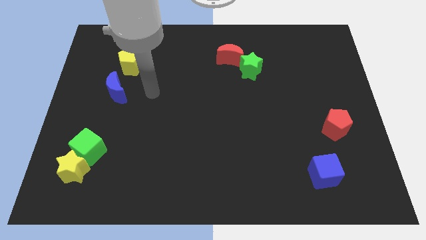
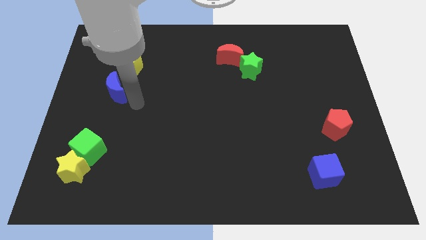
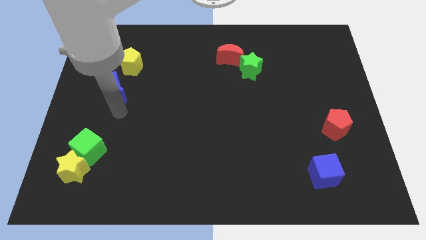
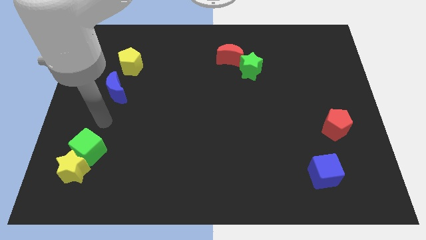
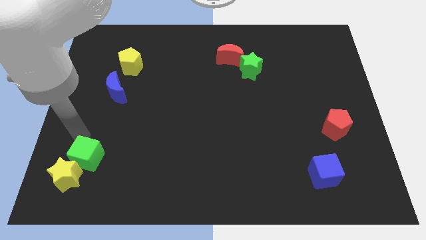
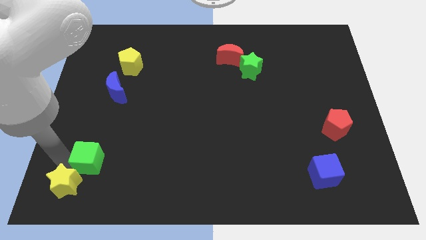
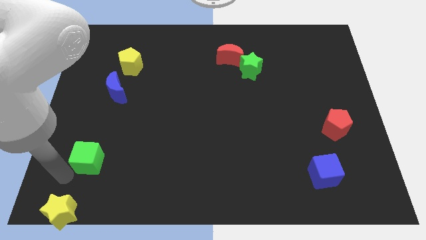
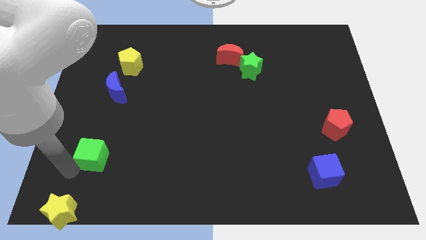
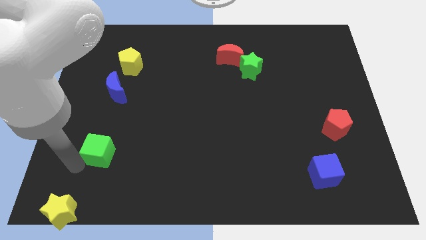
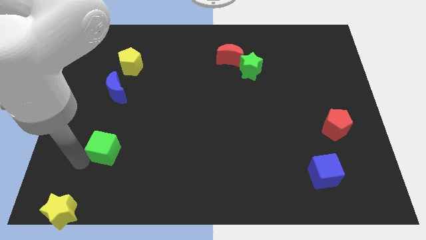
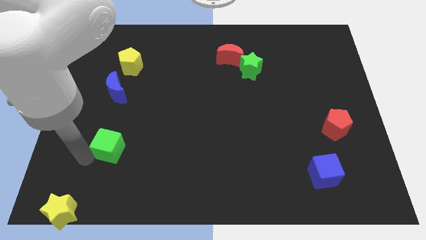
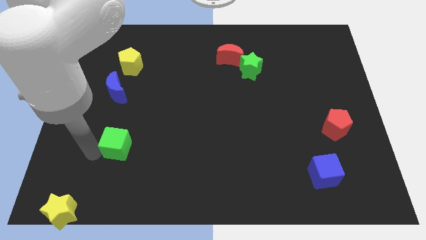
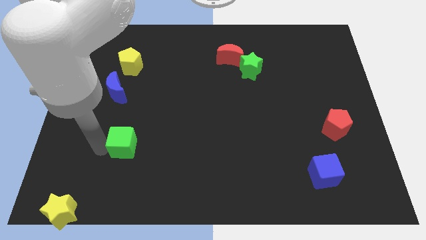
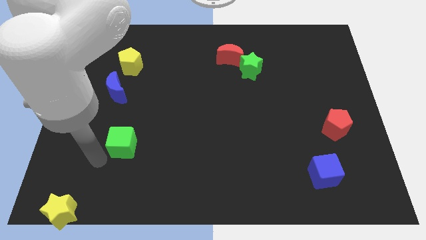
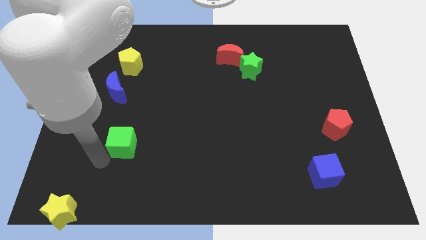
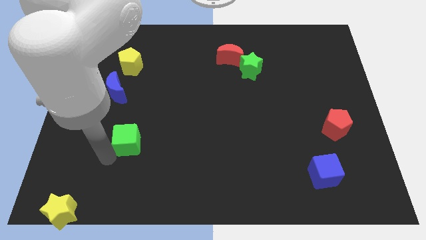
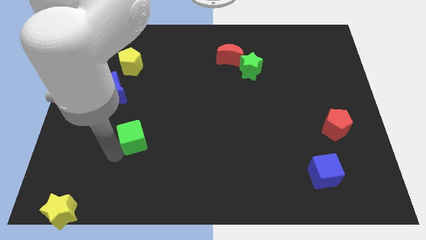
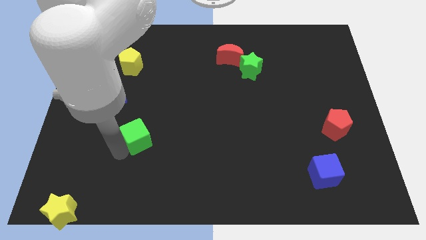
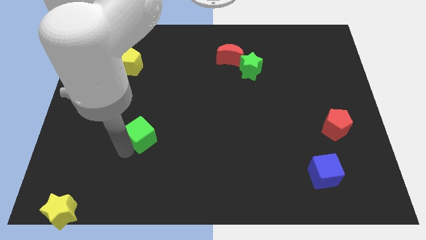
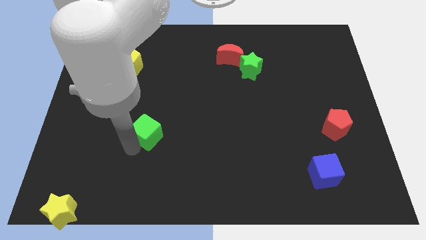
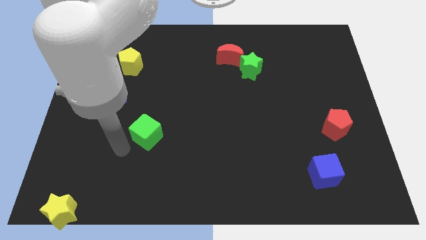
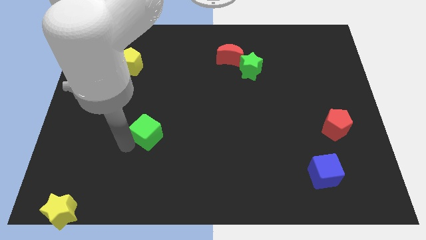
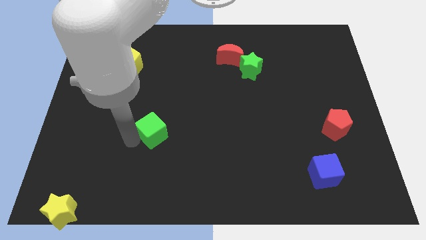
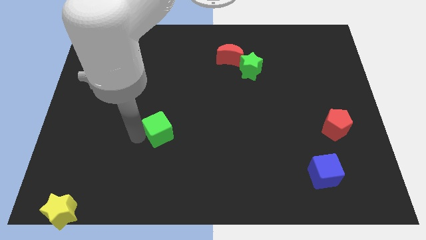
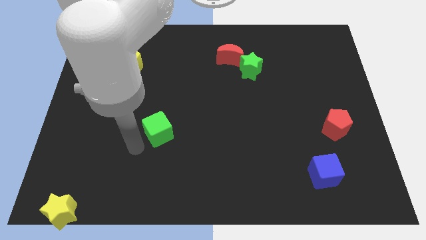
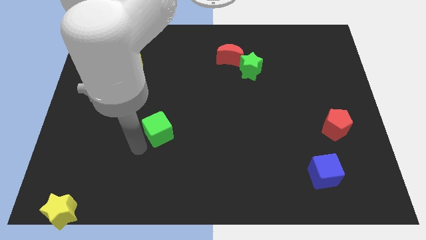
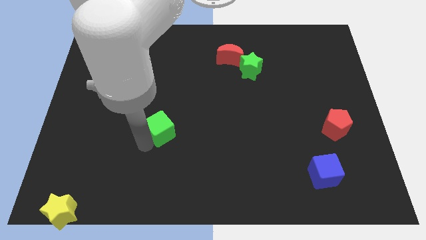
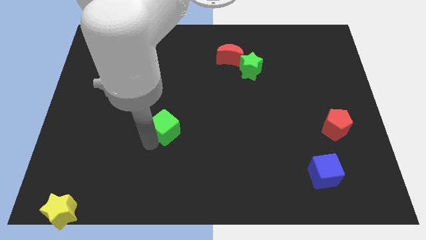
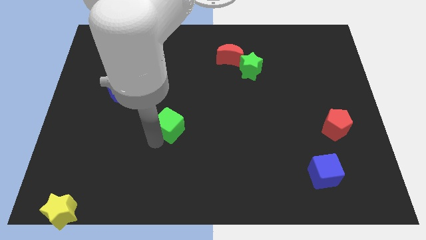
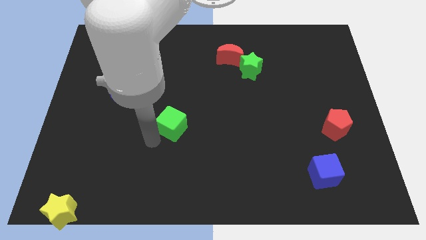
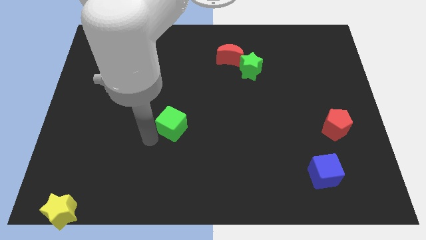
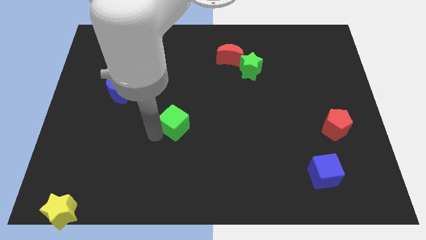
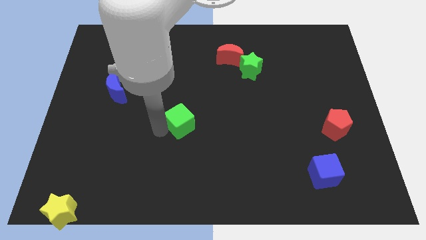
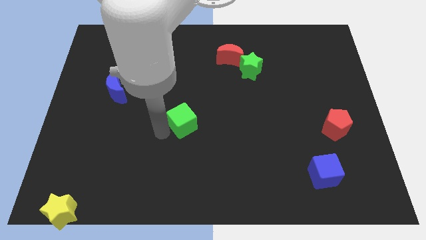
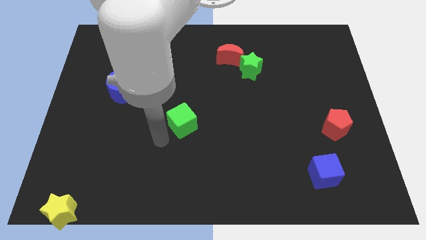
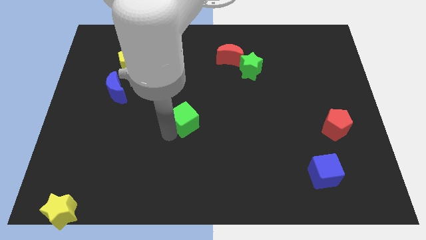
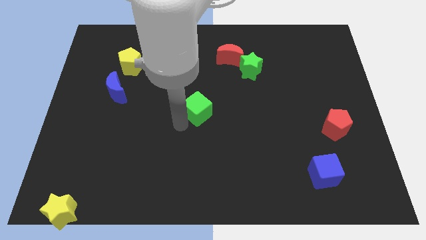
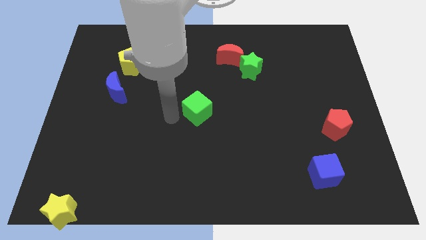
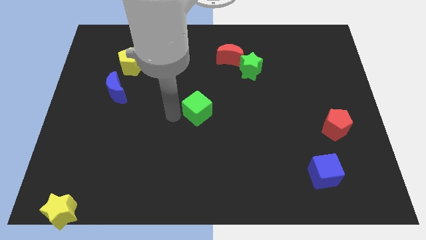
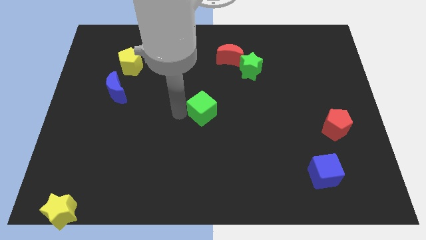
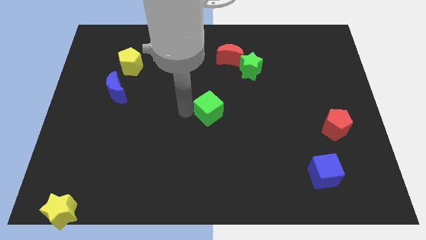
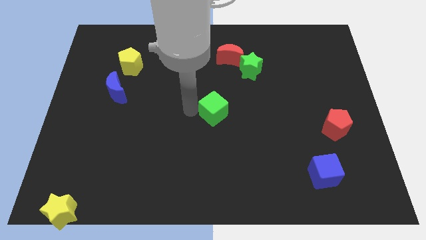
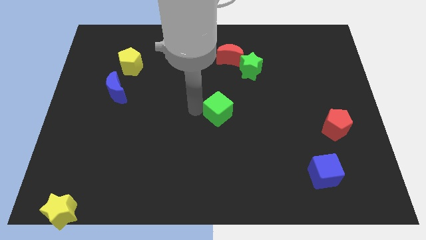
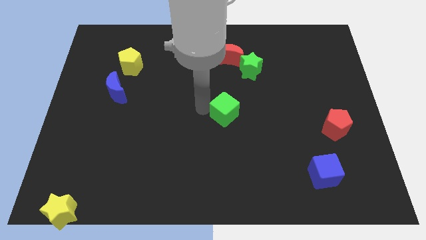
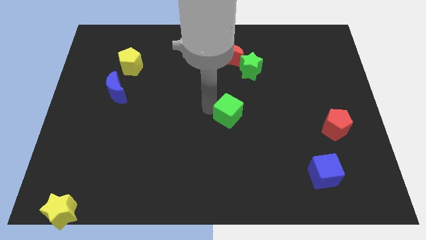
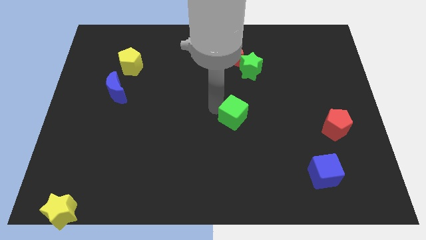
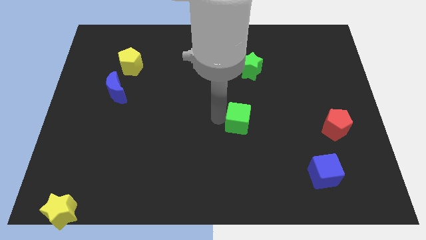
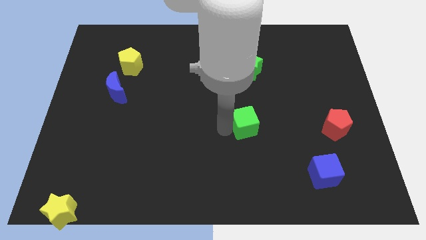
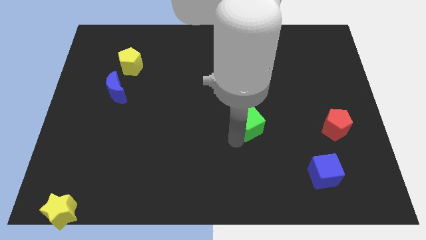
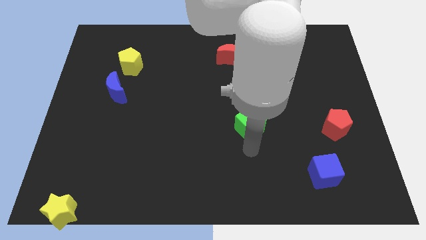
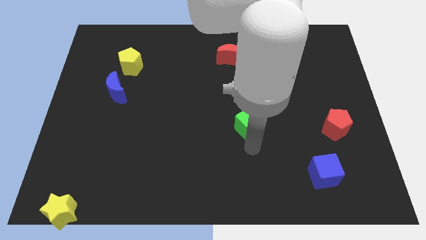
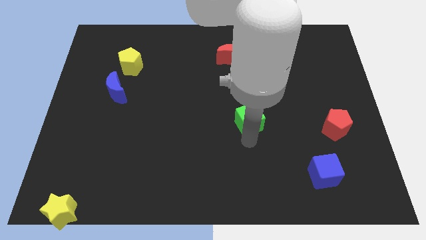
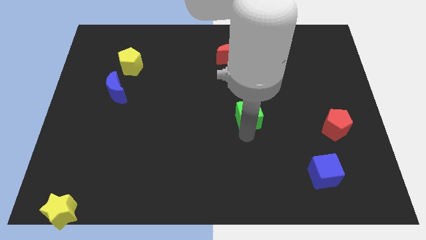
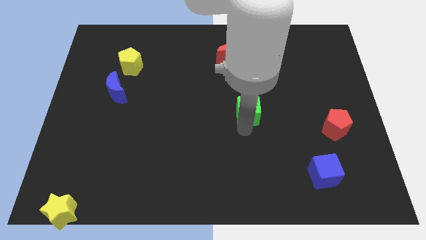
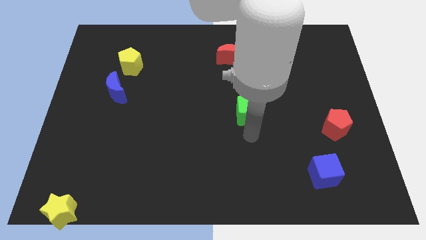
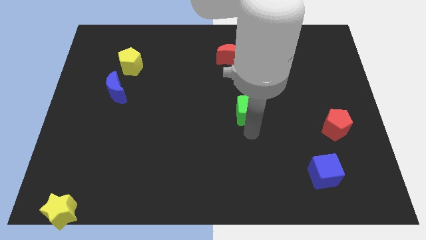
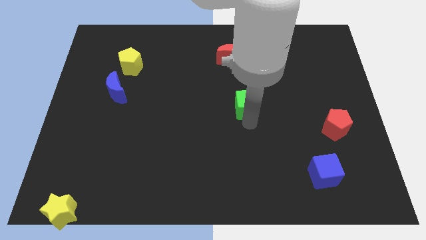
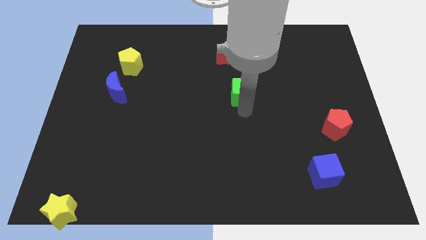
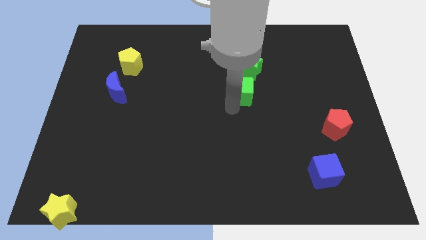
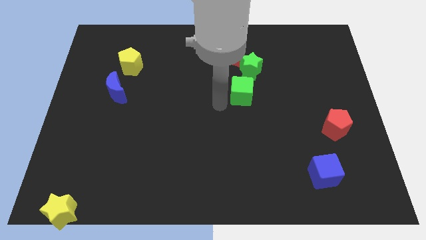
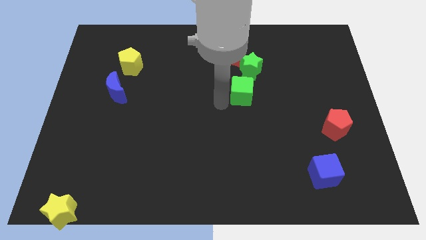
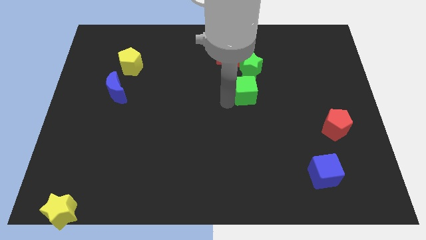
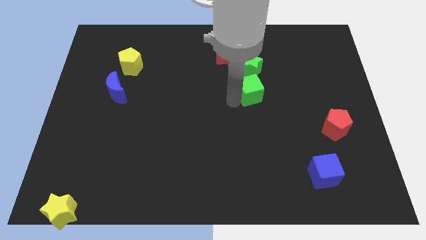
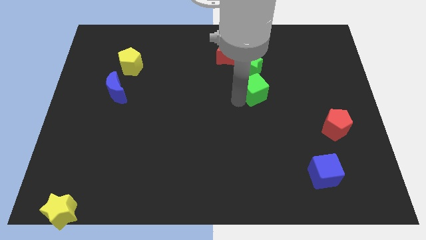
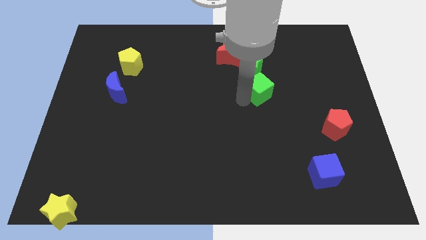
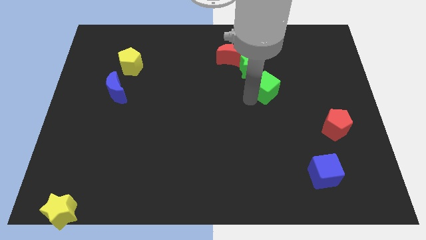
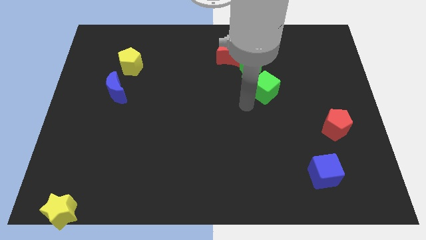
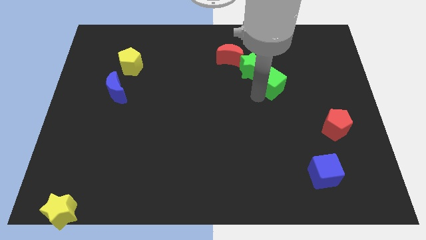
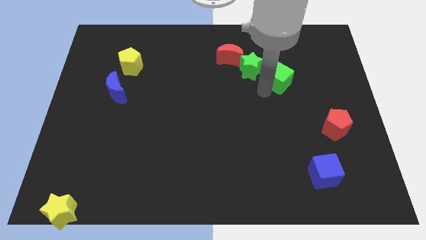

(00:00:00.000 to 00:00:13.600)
put the green cube to the right of the green star

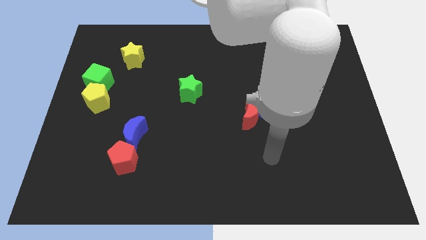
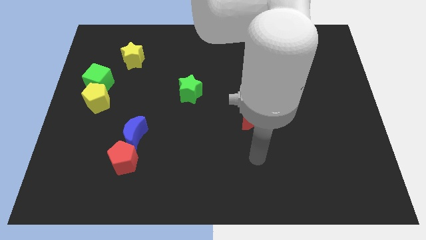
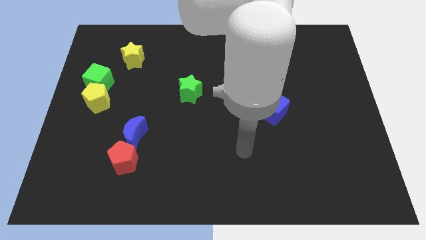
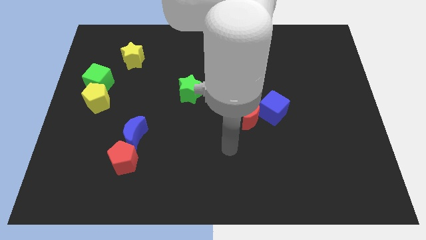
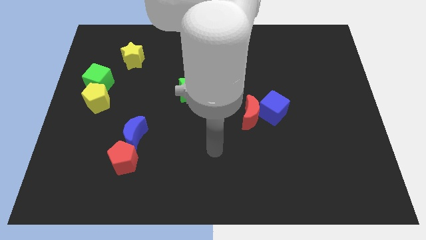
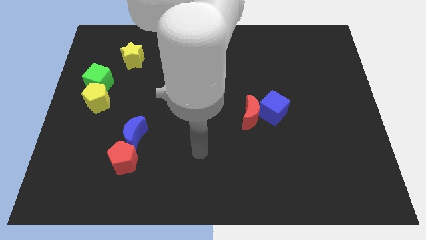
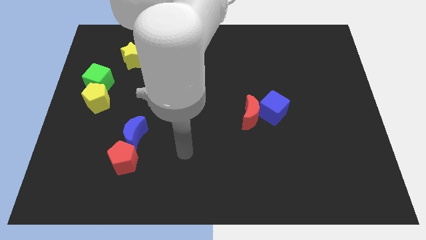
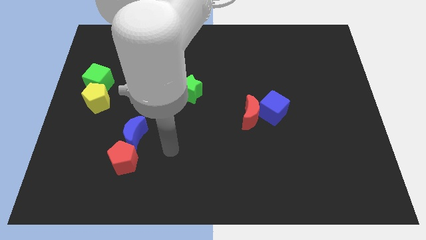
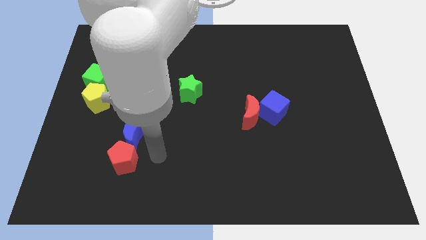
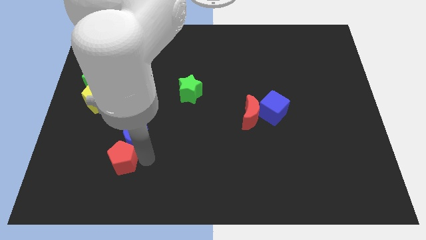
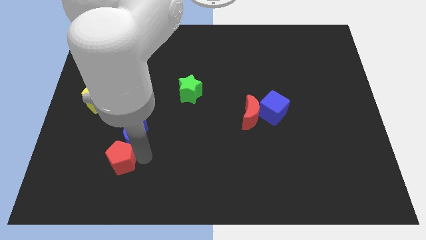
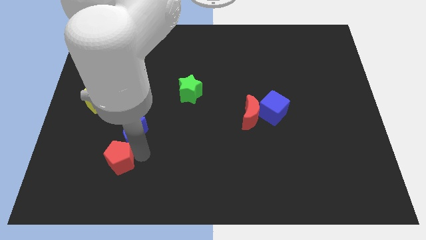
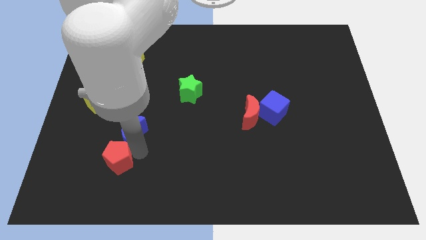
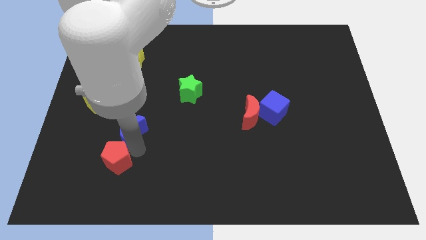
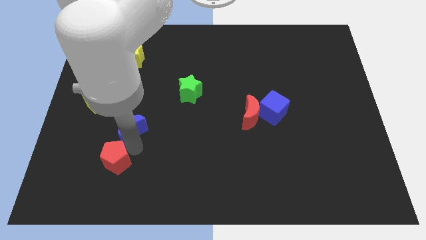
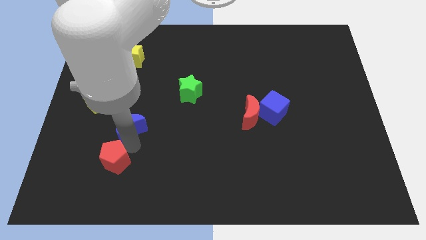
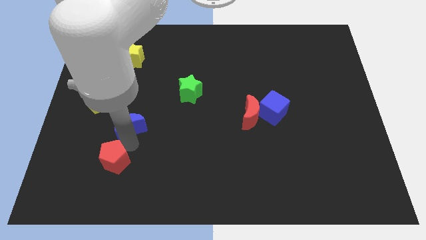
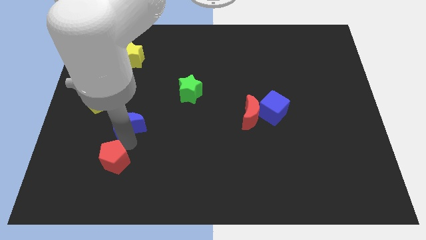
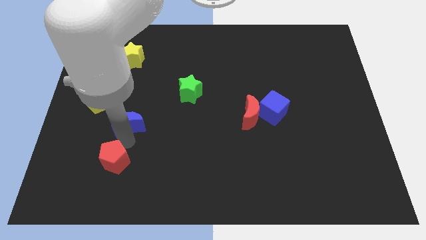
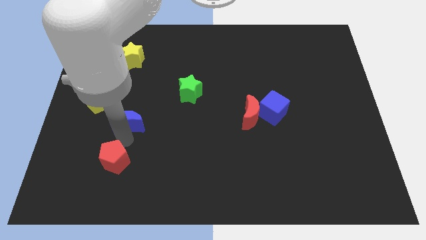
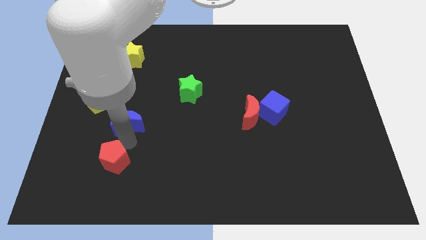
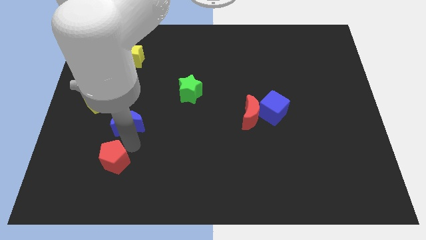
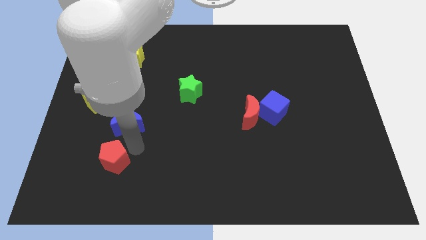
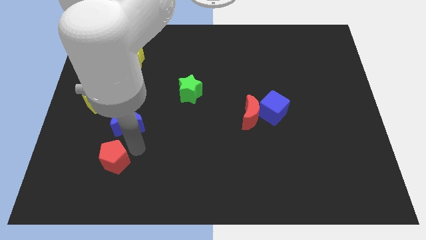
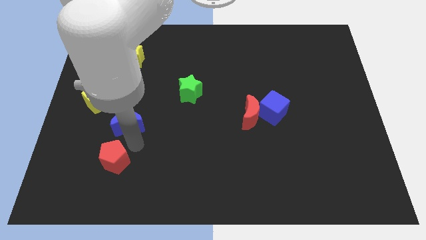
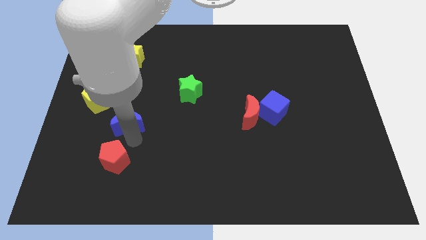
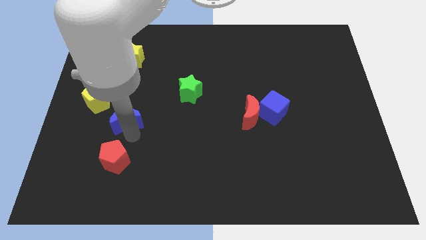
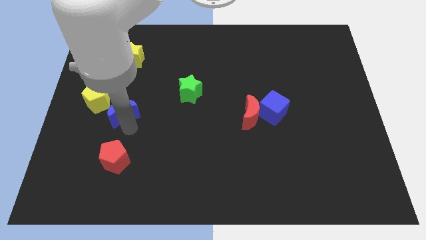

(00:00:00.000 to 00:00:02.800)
put the blue moon diagonally down and to the right of the green cube
